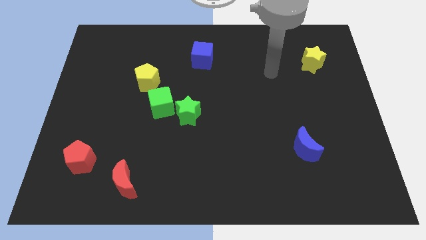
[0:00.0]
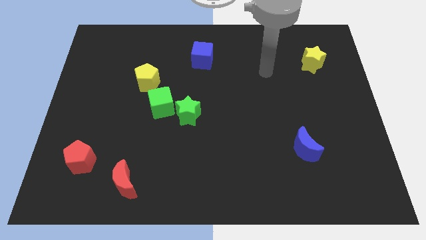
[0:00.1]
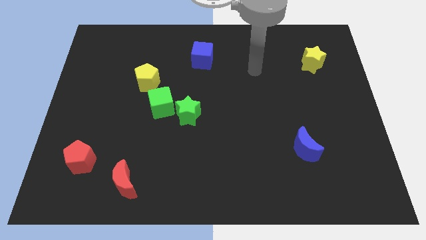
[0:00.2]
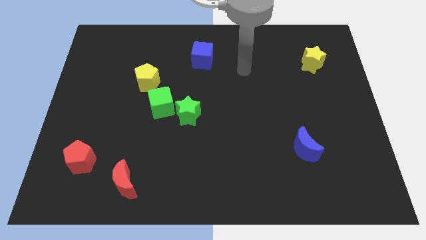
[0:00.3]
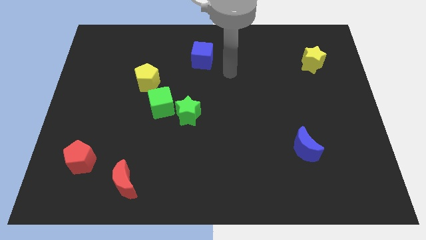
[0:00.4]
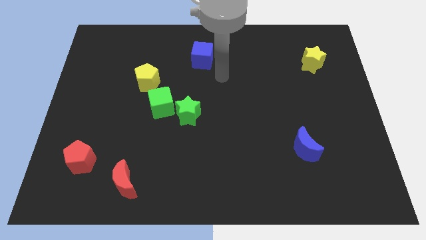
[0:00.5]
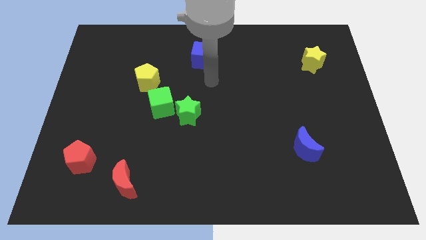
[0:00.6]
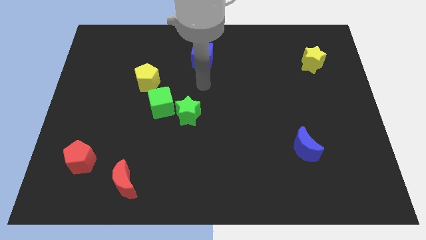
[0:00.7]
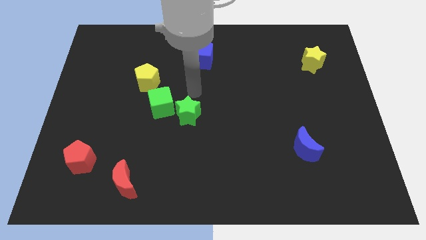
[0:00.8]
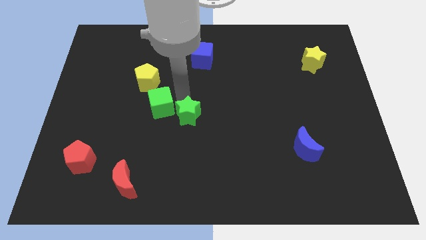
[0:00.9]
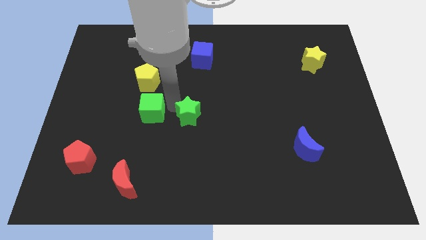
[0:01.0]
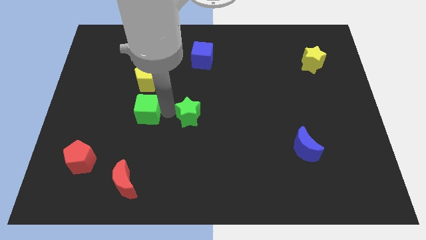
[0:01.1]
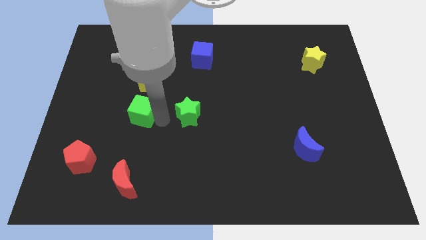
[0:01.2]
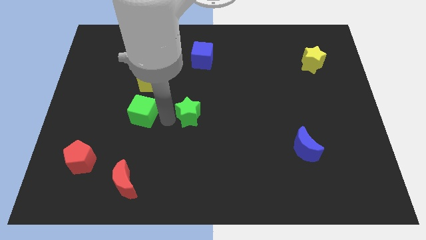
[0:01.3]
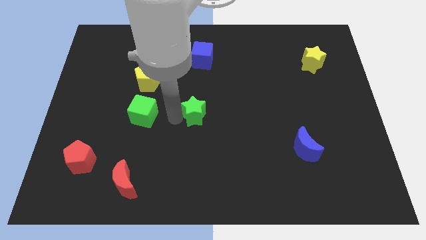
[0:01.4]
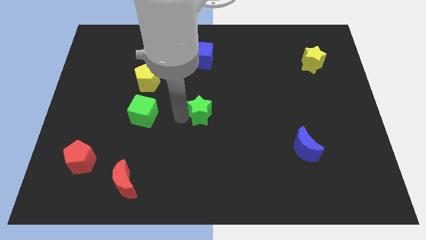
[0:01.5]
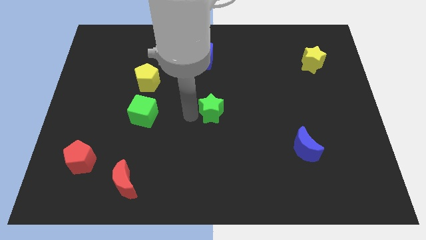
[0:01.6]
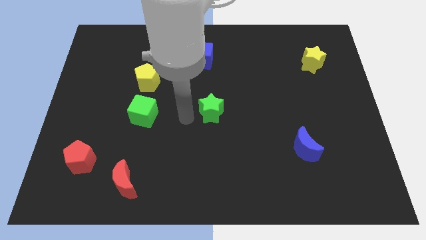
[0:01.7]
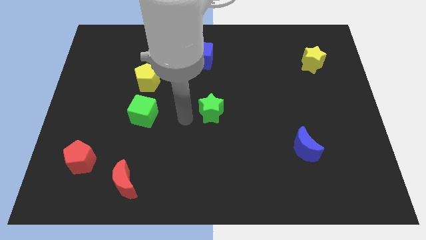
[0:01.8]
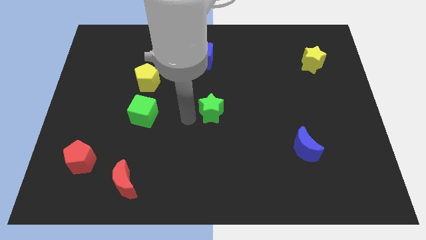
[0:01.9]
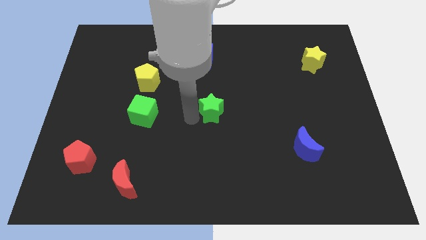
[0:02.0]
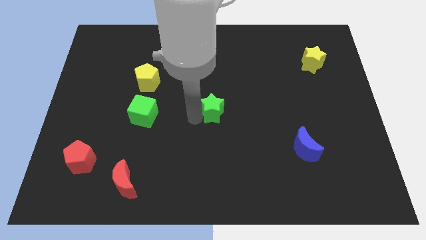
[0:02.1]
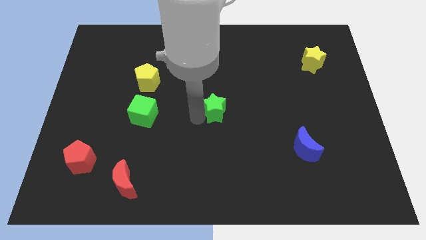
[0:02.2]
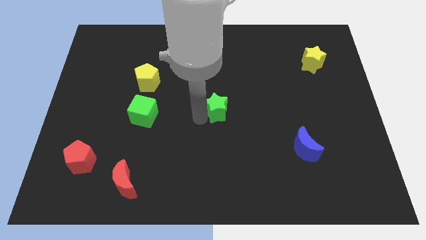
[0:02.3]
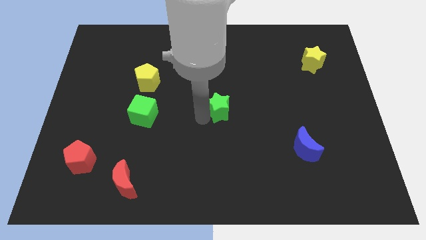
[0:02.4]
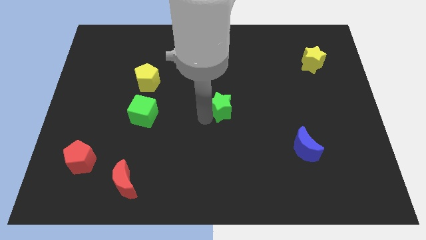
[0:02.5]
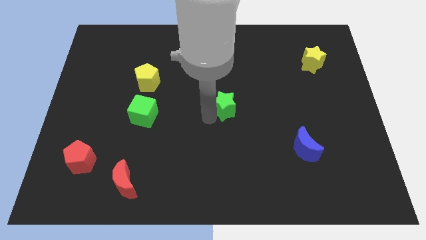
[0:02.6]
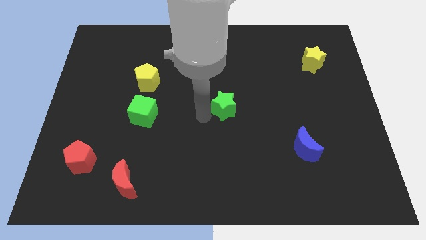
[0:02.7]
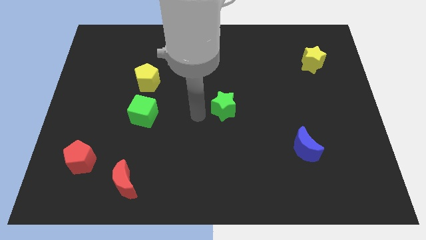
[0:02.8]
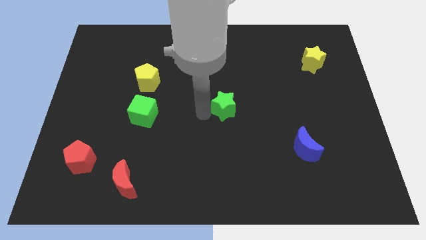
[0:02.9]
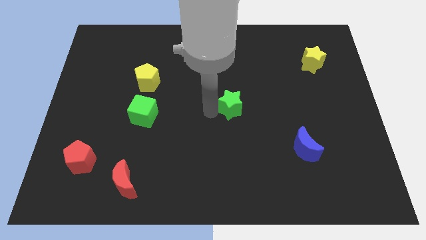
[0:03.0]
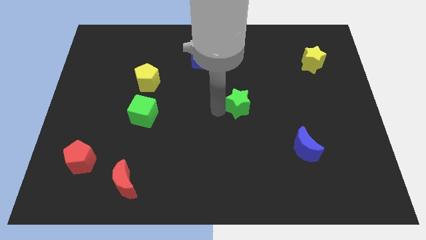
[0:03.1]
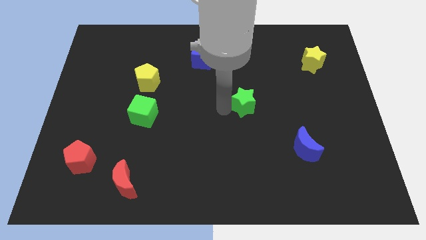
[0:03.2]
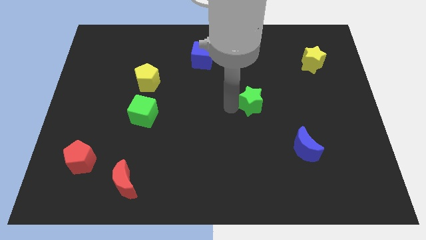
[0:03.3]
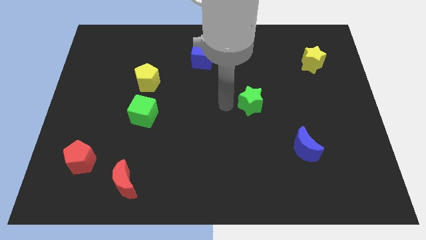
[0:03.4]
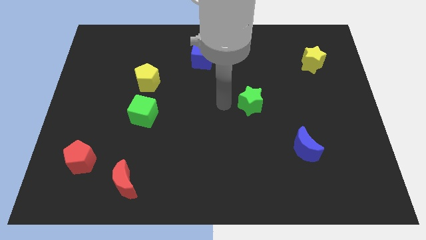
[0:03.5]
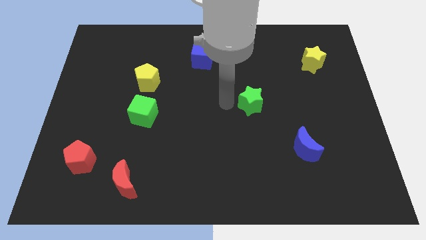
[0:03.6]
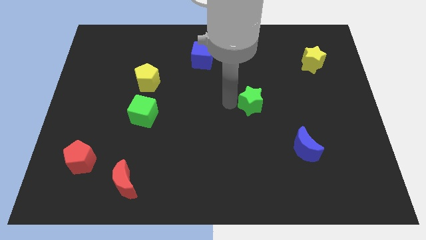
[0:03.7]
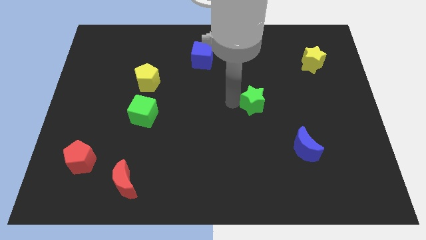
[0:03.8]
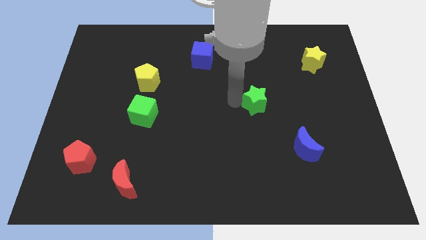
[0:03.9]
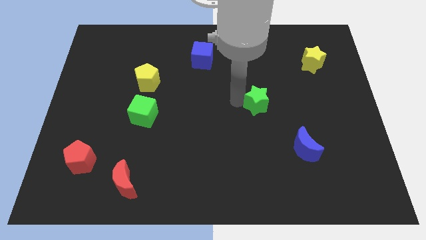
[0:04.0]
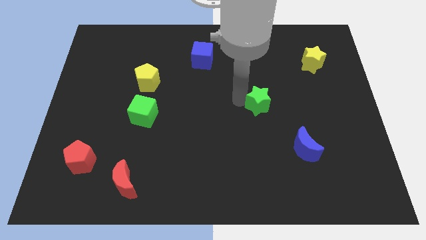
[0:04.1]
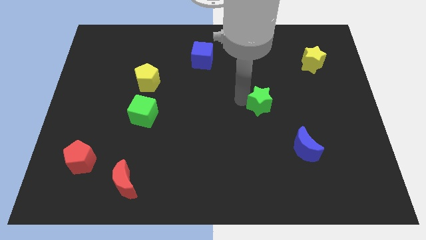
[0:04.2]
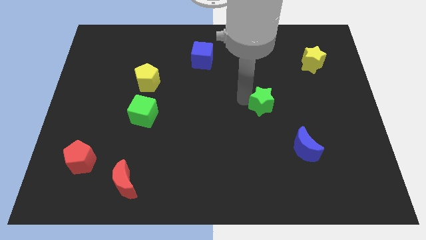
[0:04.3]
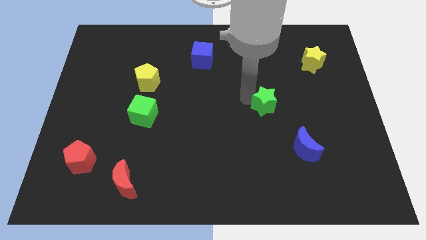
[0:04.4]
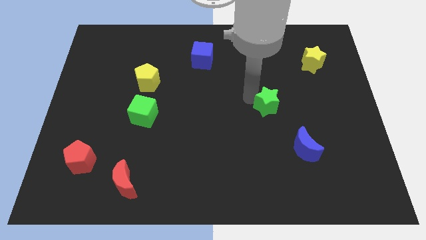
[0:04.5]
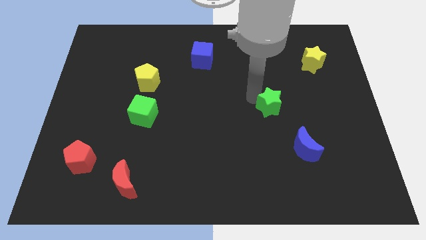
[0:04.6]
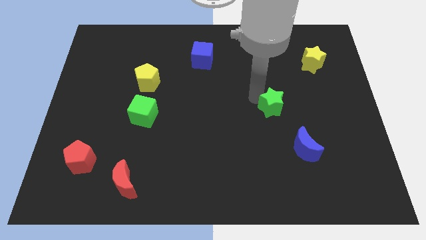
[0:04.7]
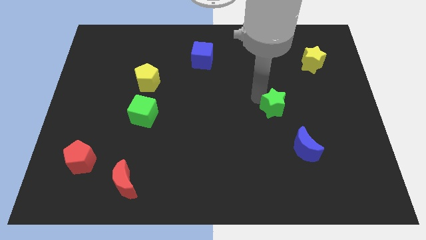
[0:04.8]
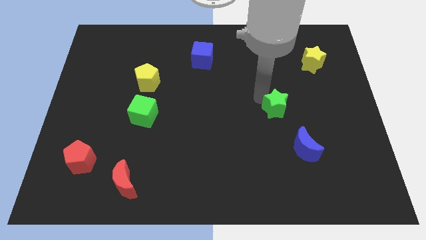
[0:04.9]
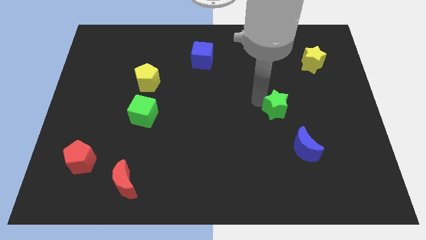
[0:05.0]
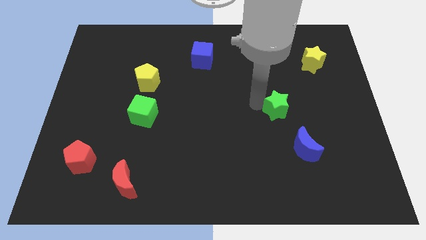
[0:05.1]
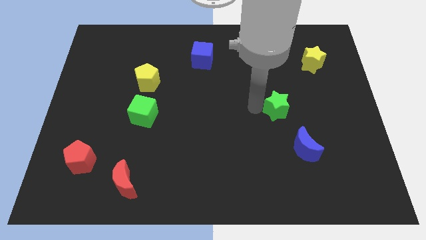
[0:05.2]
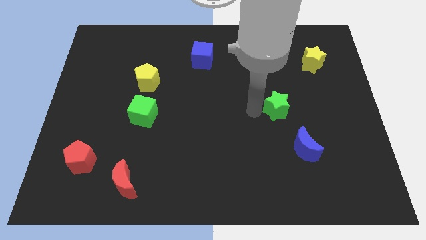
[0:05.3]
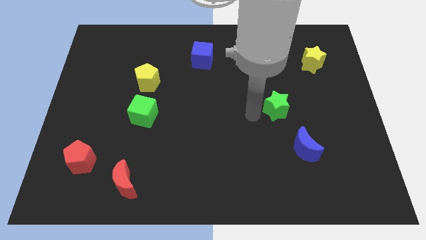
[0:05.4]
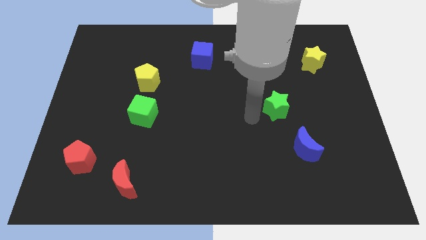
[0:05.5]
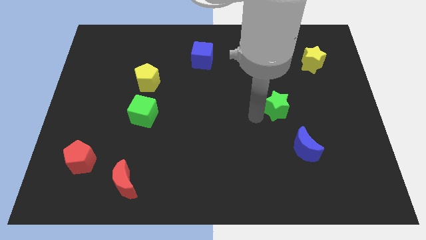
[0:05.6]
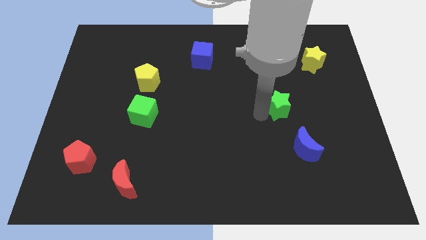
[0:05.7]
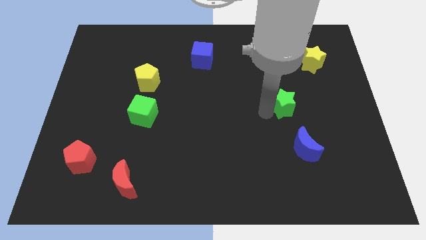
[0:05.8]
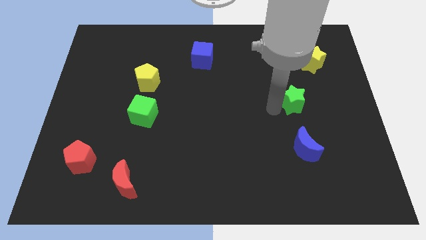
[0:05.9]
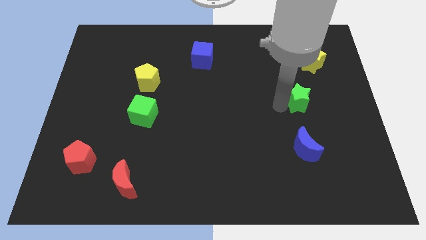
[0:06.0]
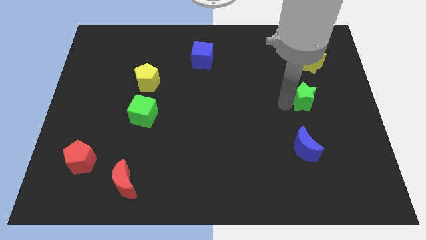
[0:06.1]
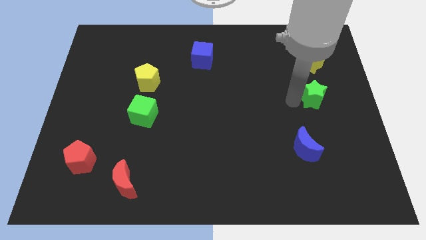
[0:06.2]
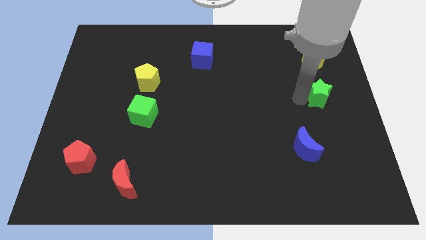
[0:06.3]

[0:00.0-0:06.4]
put the green star to the right side

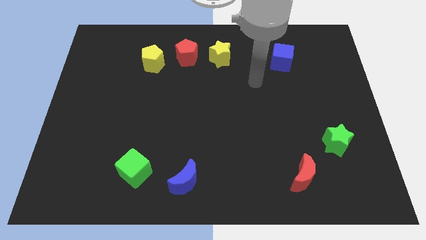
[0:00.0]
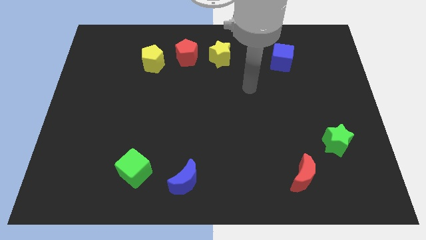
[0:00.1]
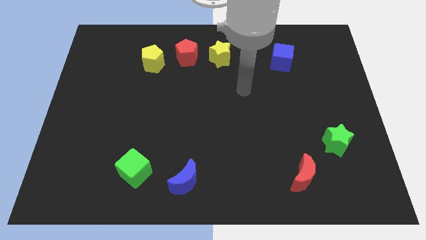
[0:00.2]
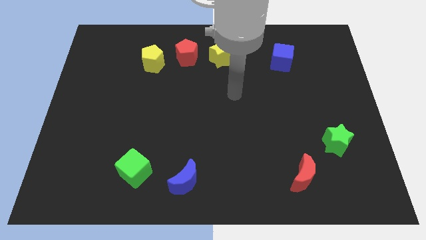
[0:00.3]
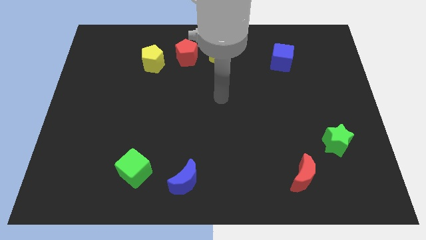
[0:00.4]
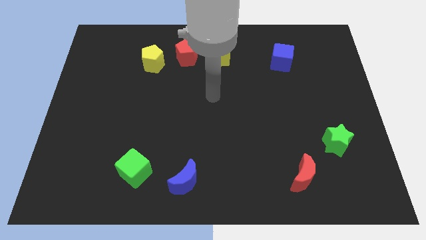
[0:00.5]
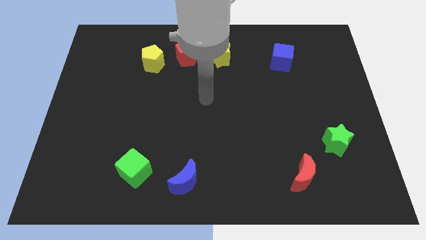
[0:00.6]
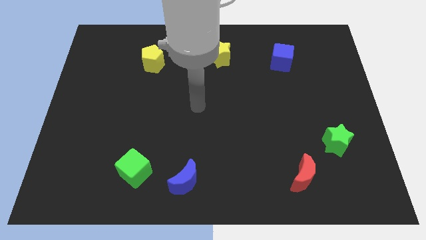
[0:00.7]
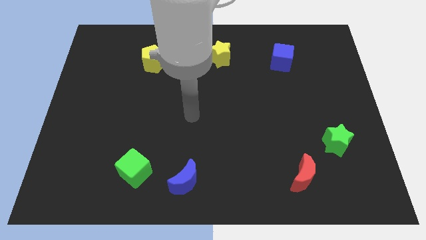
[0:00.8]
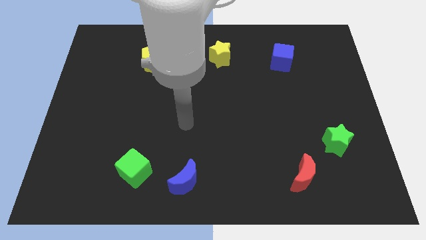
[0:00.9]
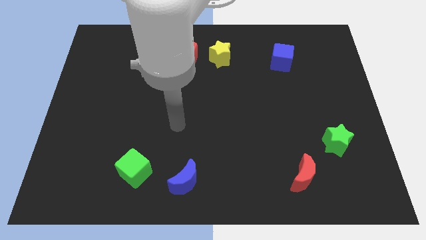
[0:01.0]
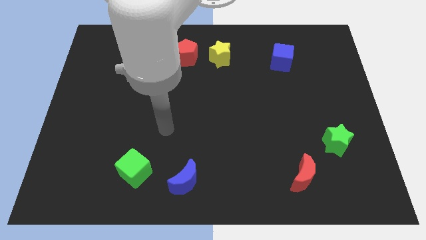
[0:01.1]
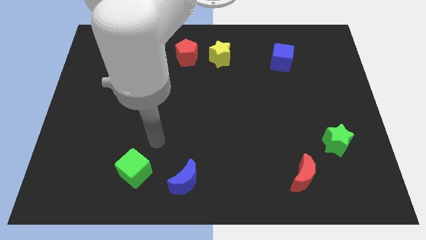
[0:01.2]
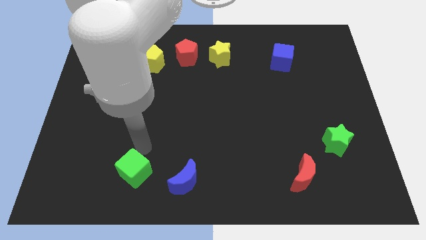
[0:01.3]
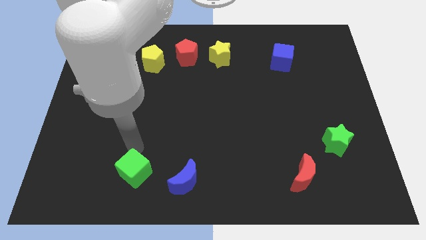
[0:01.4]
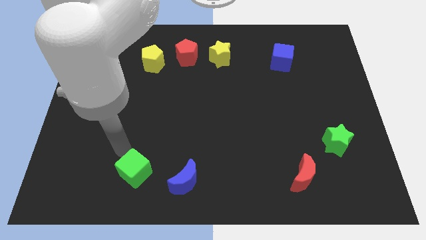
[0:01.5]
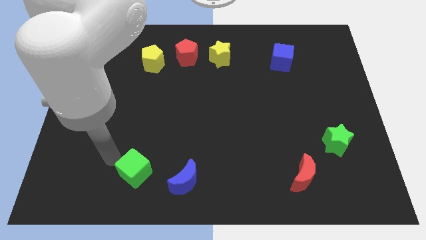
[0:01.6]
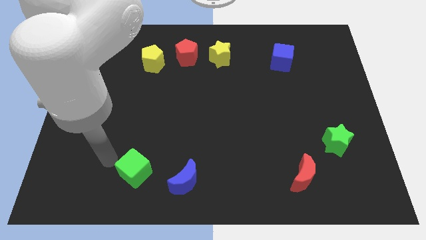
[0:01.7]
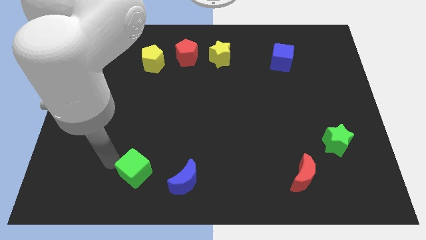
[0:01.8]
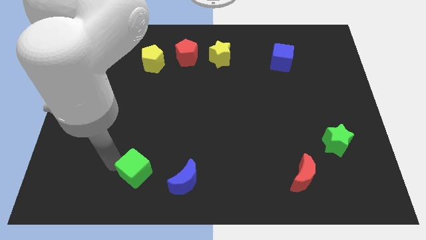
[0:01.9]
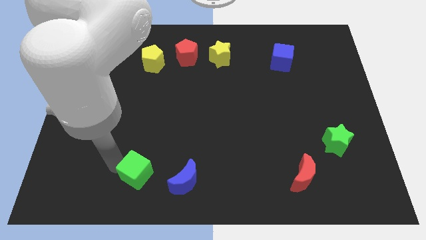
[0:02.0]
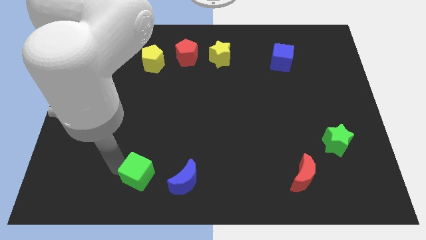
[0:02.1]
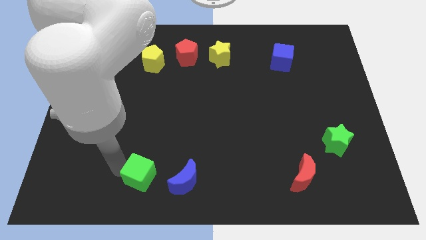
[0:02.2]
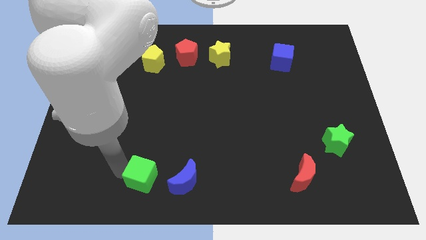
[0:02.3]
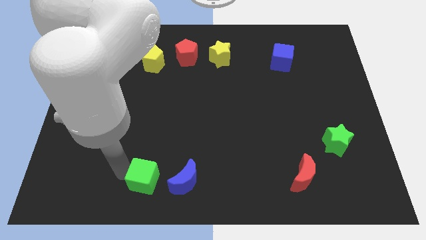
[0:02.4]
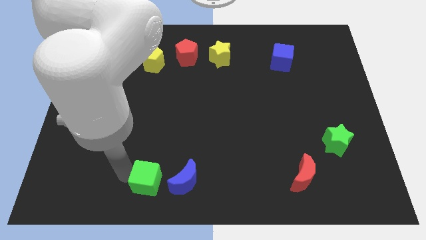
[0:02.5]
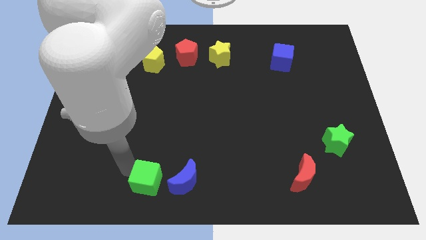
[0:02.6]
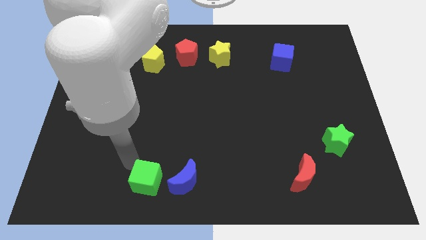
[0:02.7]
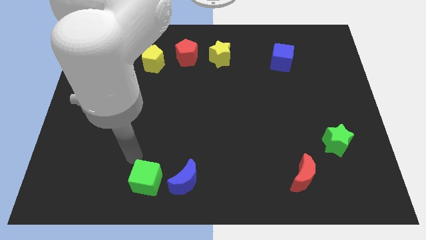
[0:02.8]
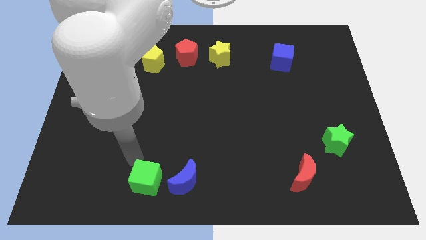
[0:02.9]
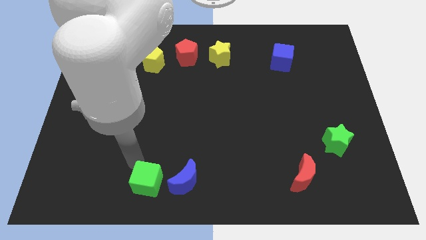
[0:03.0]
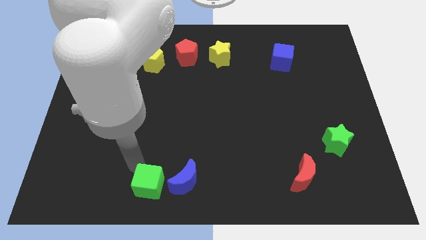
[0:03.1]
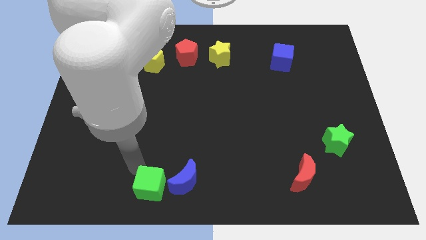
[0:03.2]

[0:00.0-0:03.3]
slide the green cube to the bottom side
